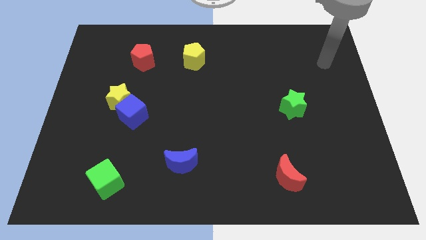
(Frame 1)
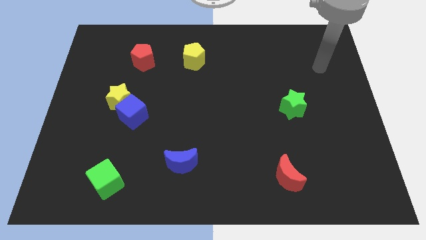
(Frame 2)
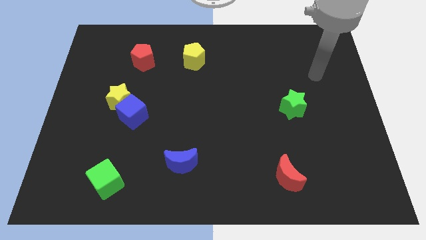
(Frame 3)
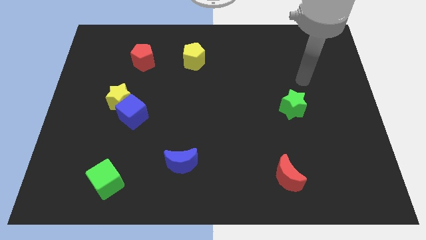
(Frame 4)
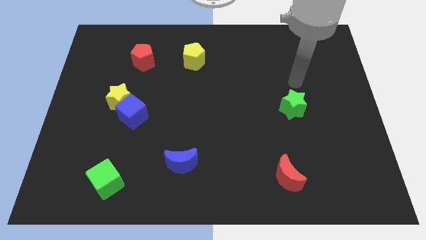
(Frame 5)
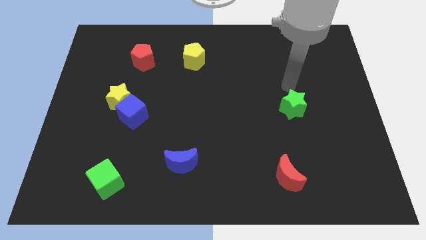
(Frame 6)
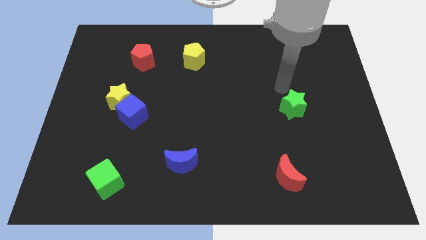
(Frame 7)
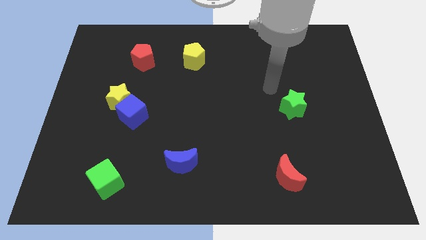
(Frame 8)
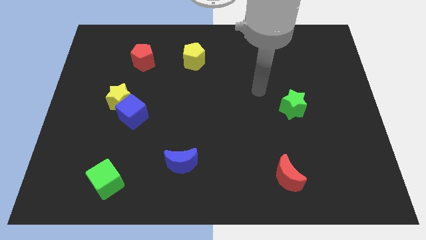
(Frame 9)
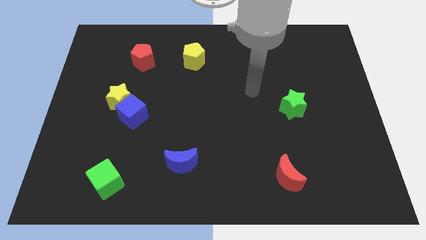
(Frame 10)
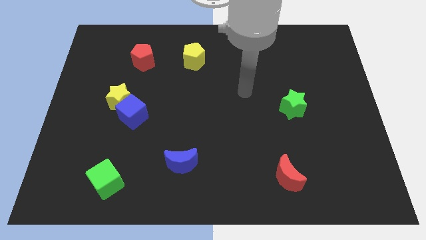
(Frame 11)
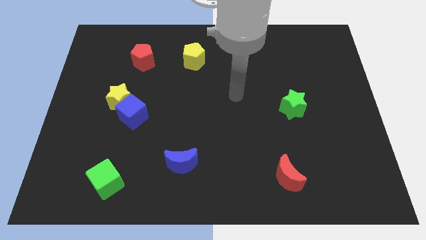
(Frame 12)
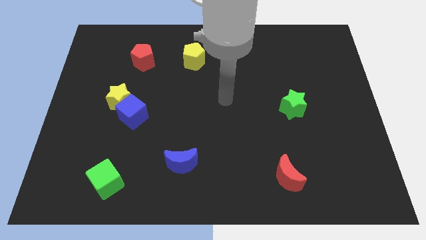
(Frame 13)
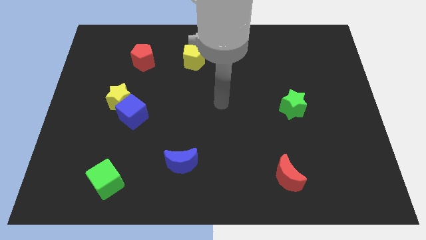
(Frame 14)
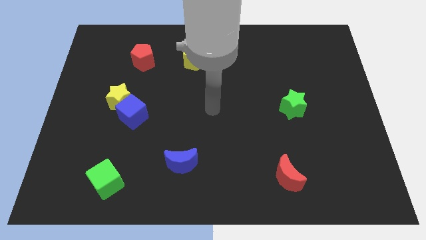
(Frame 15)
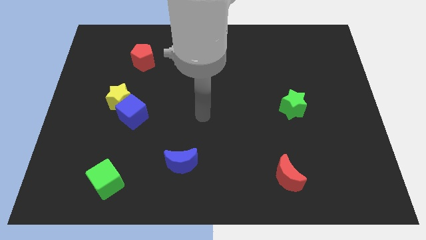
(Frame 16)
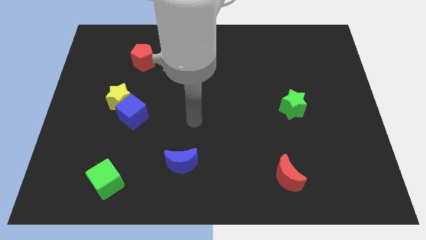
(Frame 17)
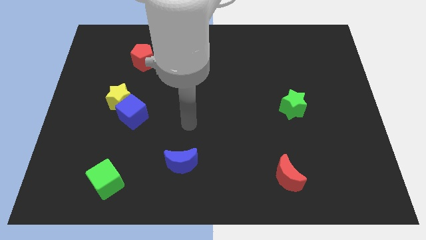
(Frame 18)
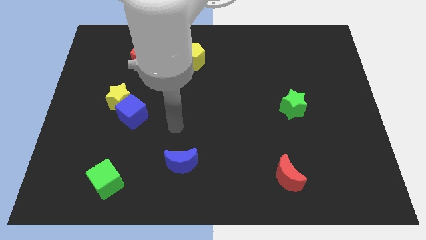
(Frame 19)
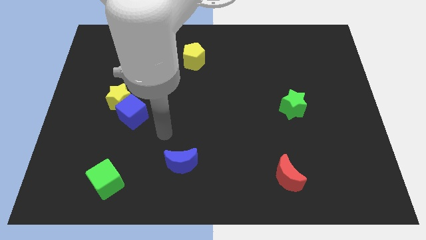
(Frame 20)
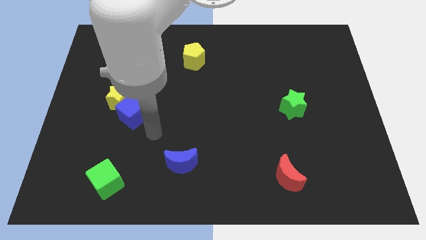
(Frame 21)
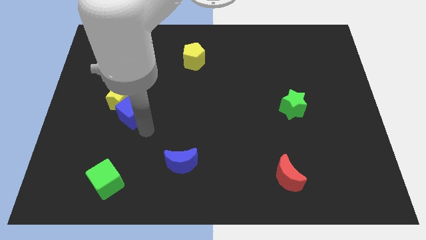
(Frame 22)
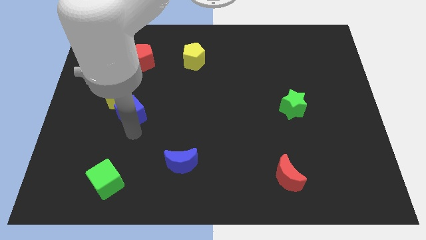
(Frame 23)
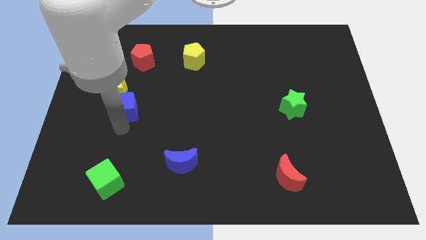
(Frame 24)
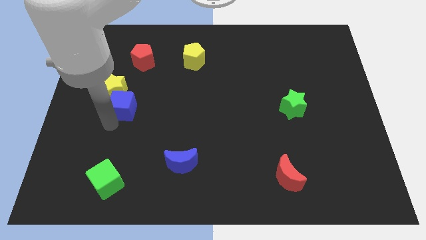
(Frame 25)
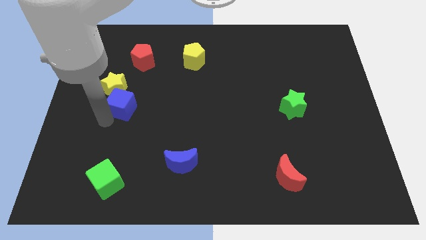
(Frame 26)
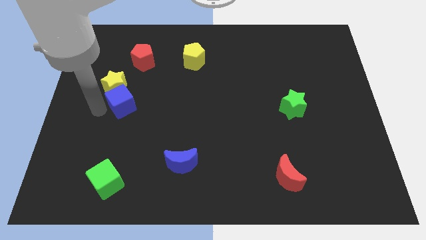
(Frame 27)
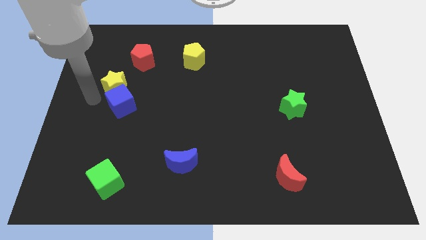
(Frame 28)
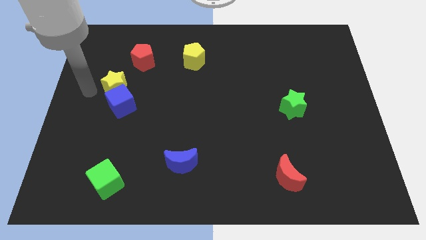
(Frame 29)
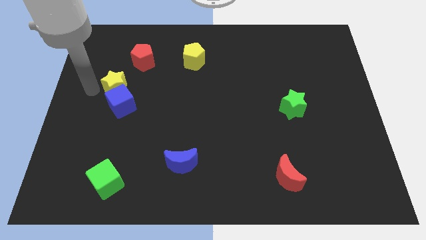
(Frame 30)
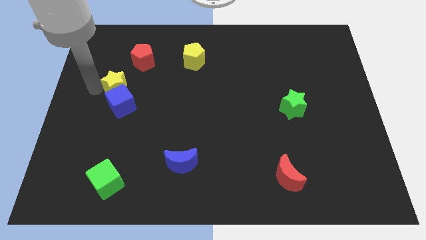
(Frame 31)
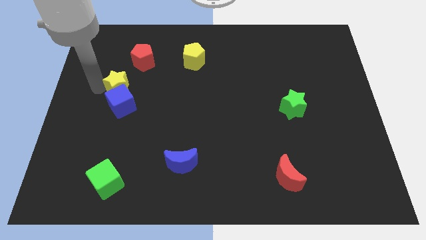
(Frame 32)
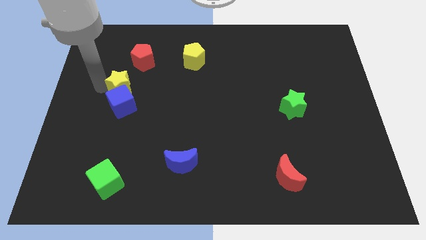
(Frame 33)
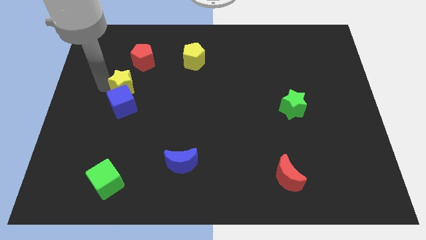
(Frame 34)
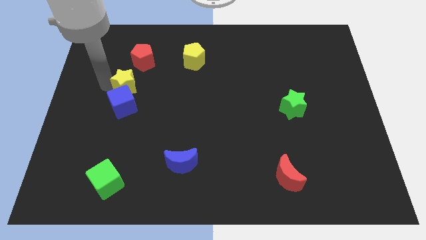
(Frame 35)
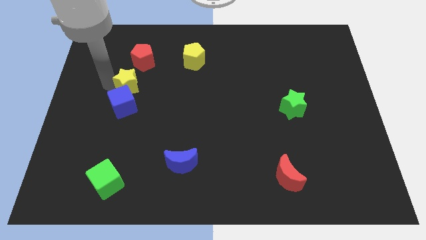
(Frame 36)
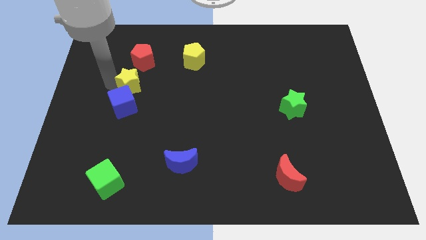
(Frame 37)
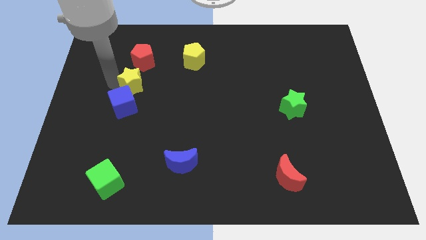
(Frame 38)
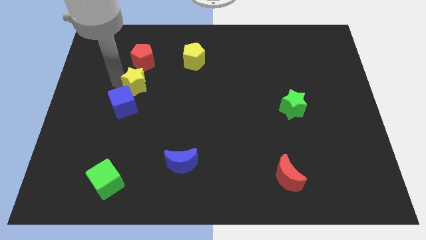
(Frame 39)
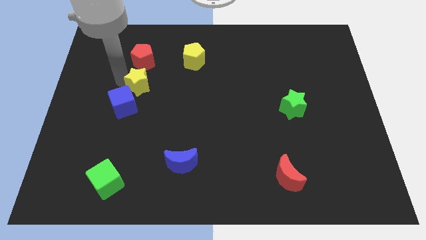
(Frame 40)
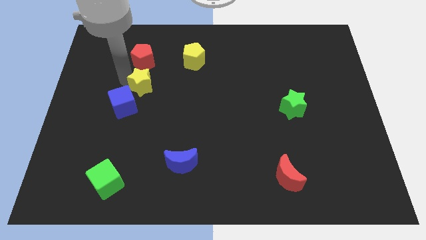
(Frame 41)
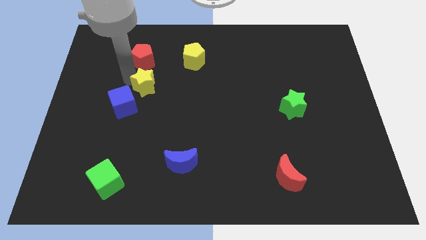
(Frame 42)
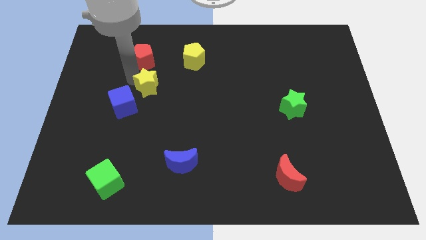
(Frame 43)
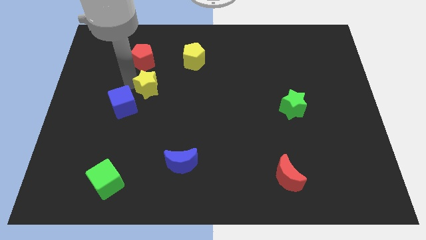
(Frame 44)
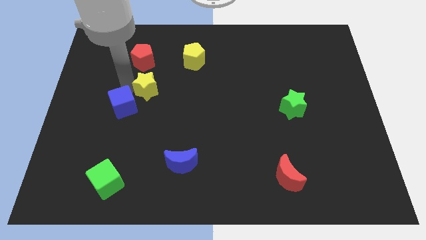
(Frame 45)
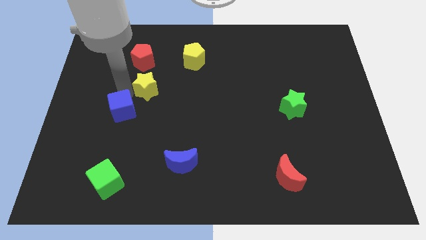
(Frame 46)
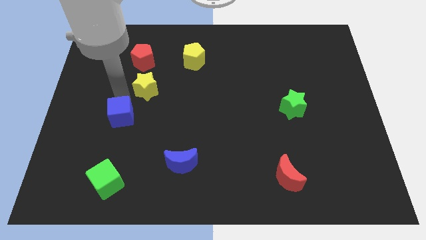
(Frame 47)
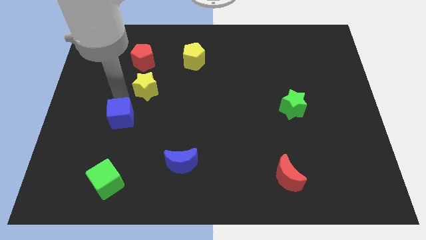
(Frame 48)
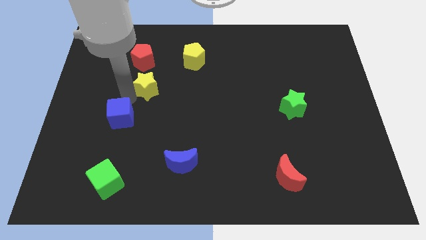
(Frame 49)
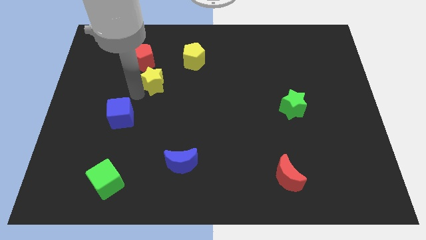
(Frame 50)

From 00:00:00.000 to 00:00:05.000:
move the yellow star to the bottom left of the yellow pentagon

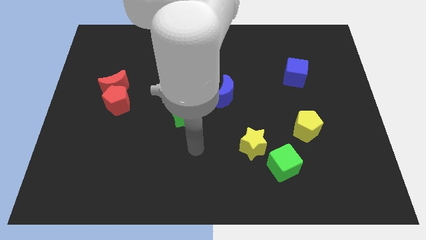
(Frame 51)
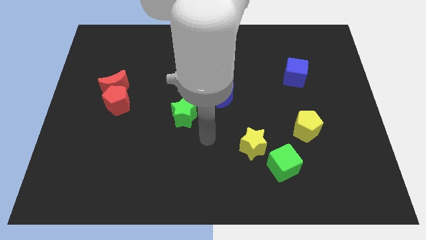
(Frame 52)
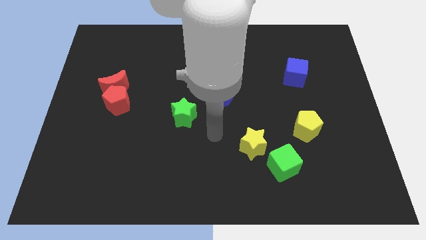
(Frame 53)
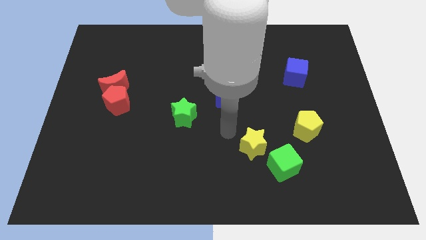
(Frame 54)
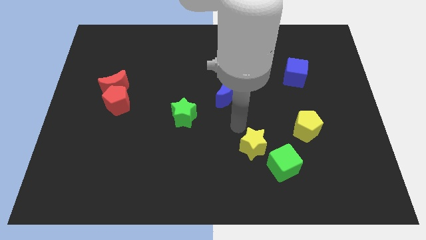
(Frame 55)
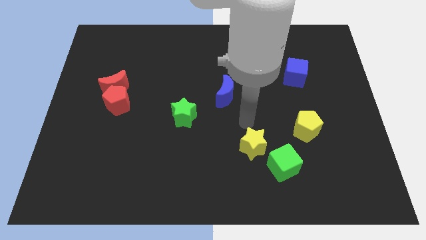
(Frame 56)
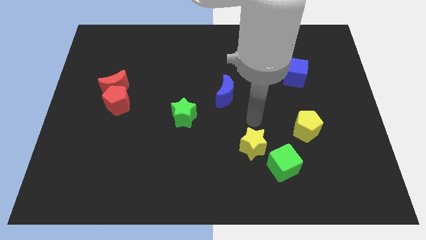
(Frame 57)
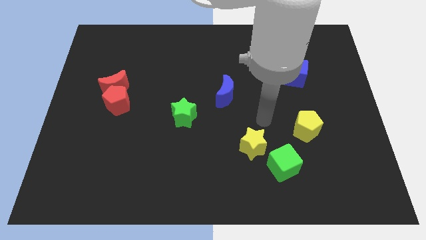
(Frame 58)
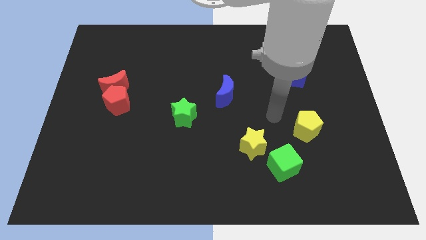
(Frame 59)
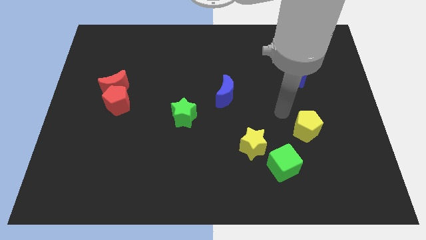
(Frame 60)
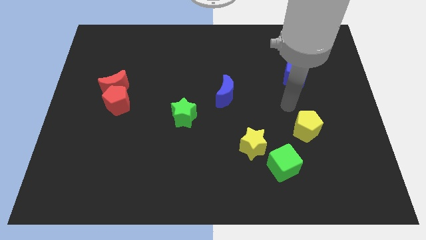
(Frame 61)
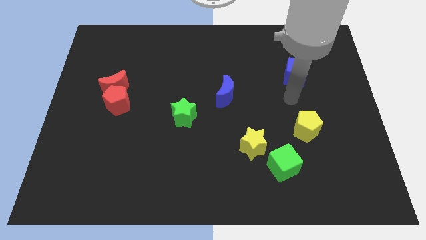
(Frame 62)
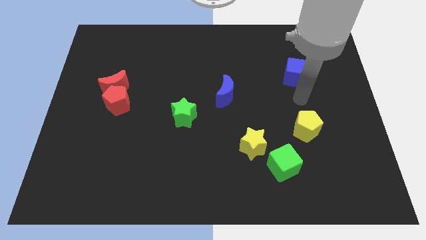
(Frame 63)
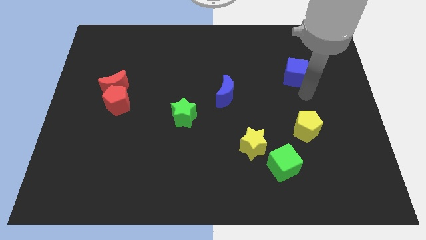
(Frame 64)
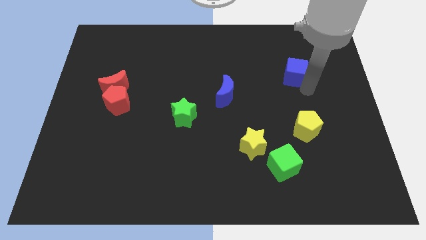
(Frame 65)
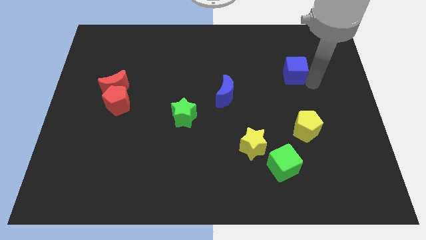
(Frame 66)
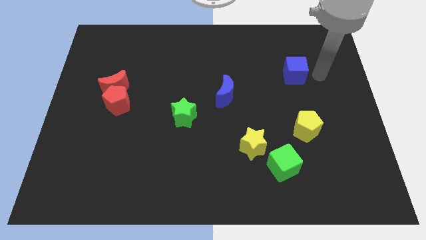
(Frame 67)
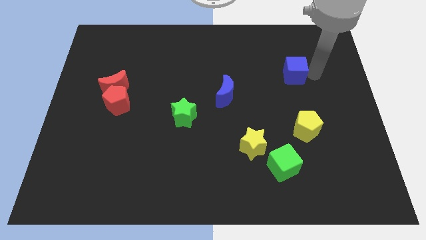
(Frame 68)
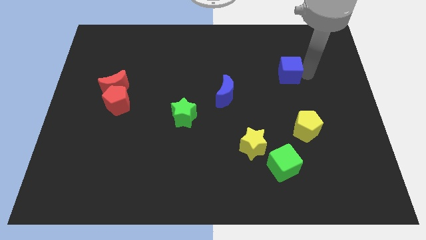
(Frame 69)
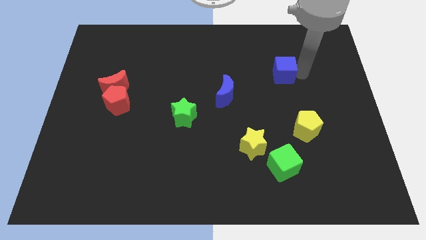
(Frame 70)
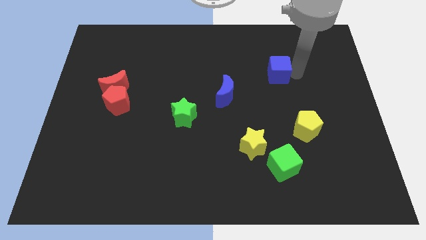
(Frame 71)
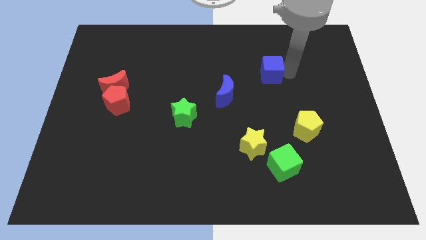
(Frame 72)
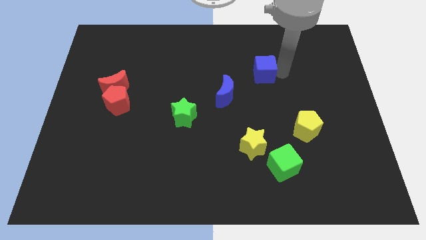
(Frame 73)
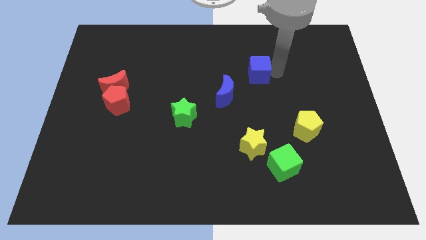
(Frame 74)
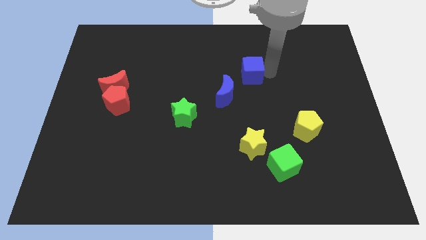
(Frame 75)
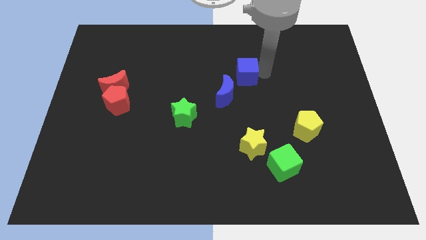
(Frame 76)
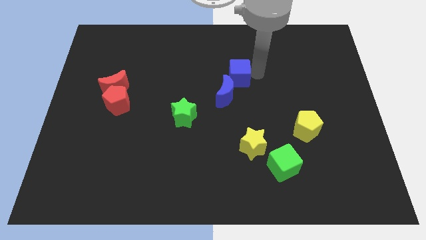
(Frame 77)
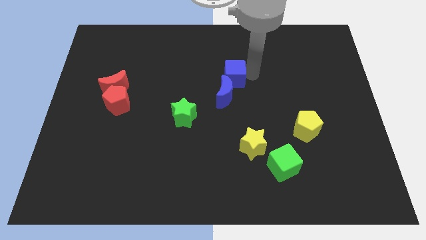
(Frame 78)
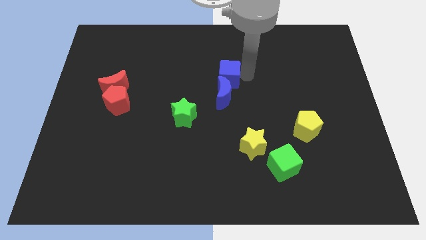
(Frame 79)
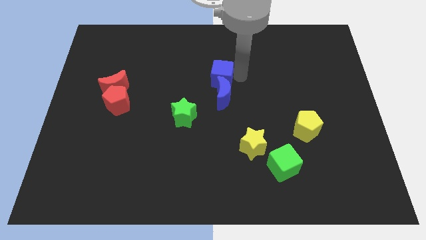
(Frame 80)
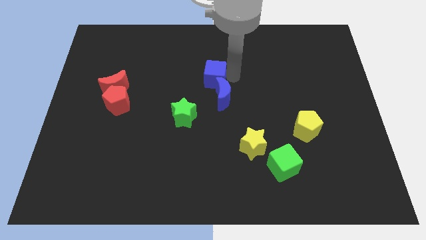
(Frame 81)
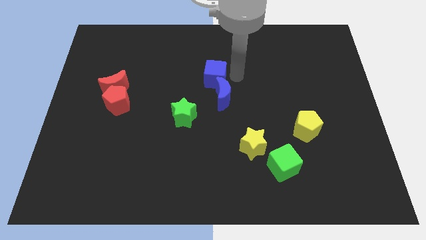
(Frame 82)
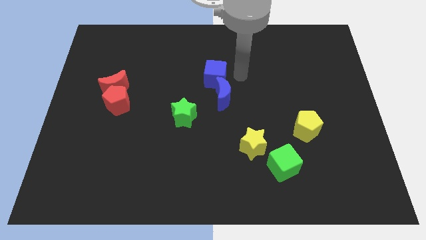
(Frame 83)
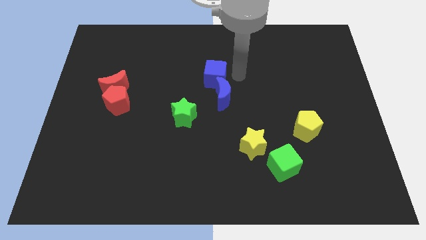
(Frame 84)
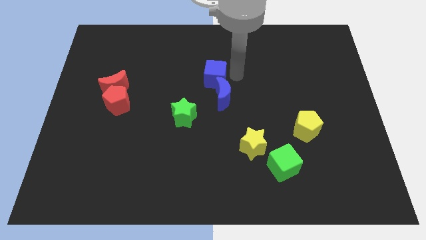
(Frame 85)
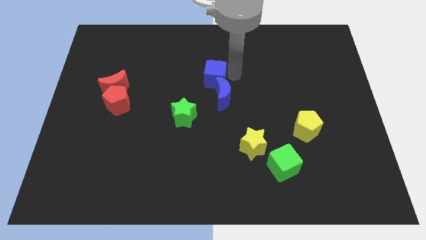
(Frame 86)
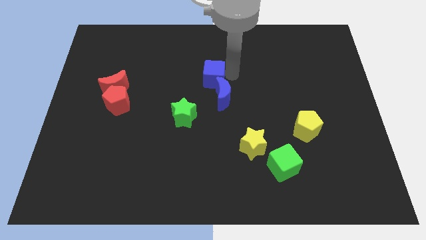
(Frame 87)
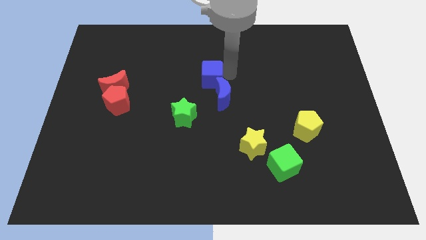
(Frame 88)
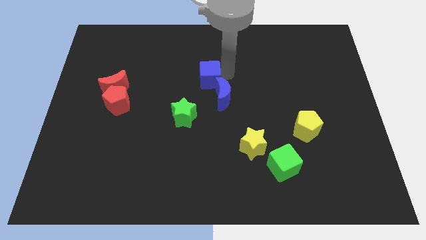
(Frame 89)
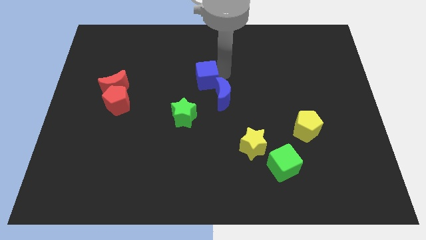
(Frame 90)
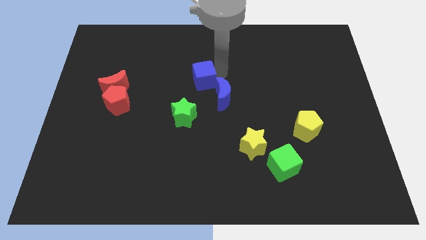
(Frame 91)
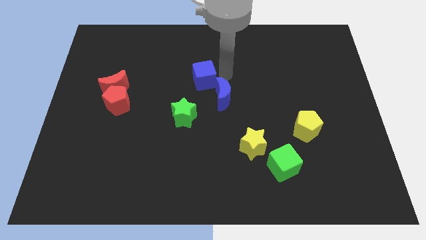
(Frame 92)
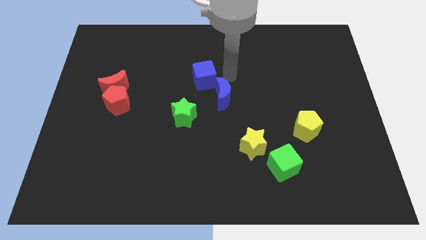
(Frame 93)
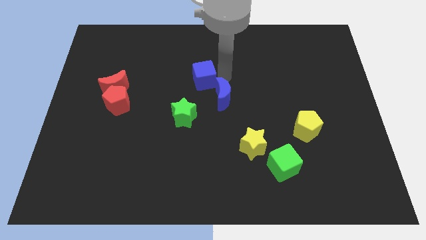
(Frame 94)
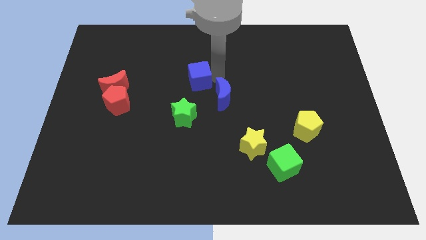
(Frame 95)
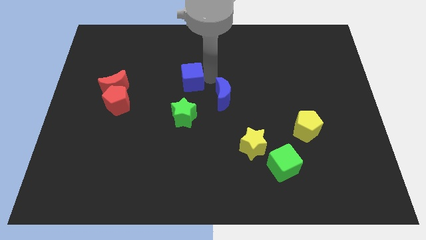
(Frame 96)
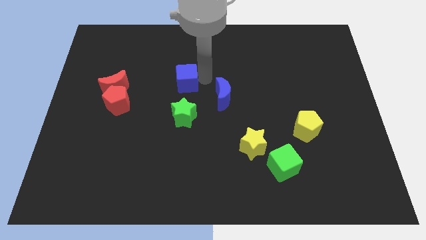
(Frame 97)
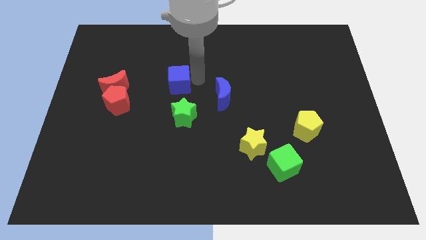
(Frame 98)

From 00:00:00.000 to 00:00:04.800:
move the blue cube to the right of the red moon
